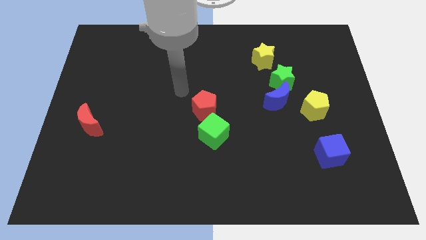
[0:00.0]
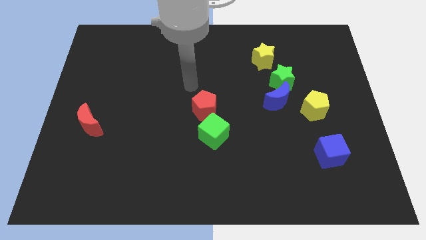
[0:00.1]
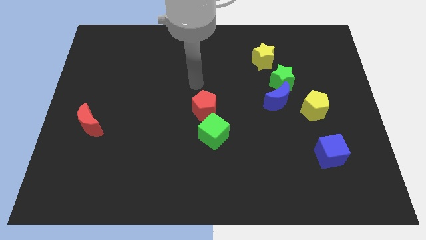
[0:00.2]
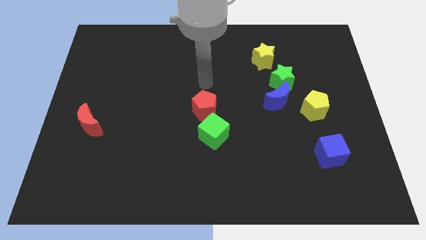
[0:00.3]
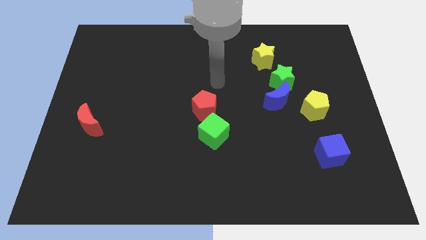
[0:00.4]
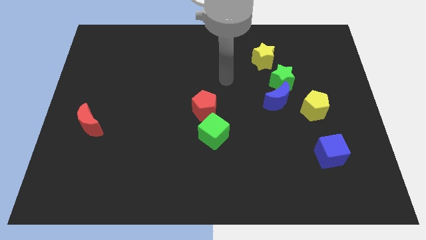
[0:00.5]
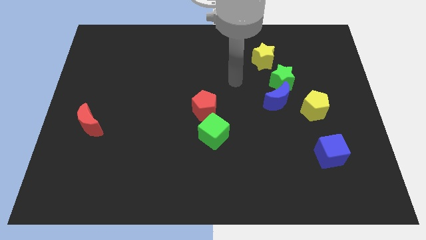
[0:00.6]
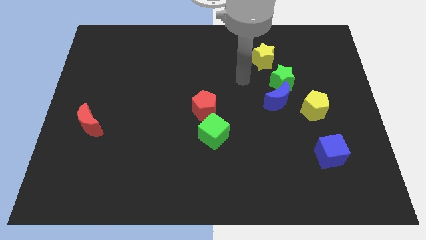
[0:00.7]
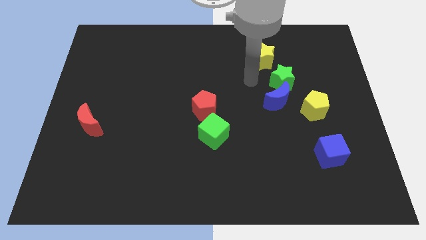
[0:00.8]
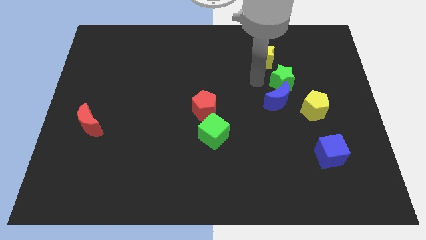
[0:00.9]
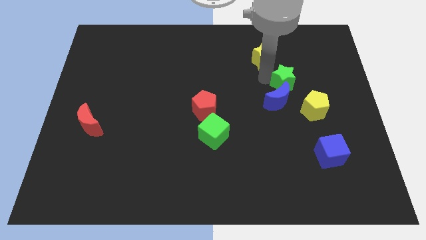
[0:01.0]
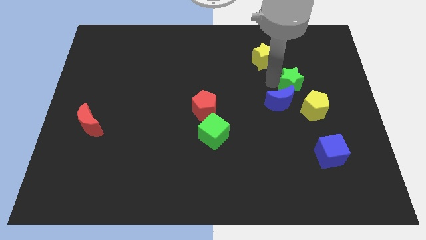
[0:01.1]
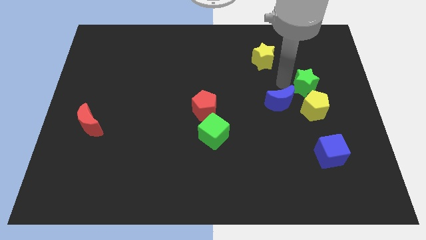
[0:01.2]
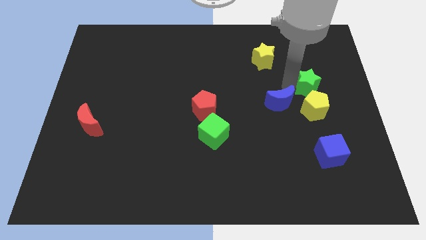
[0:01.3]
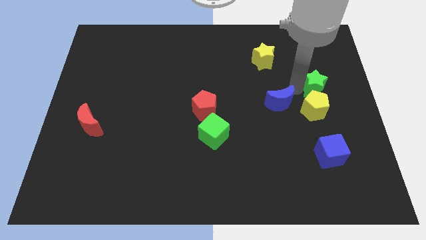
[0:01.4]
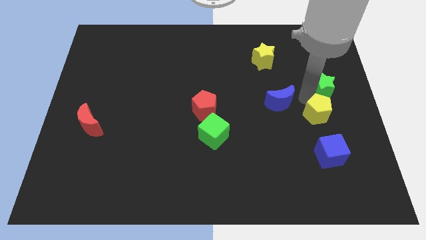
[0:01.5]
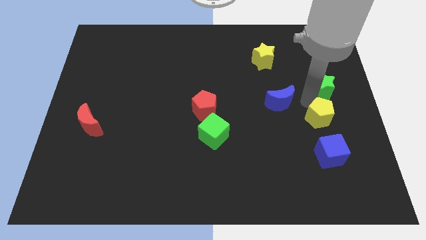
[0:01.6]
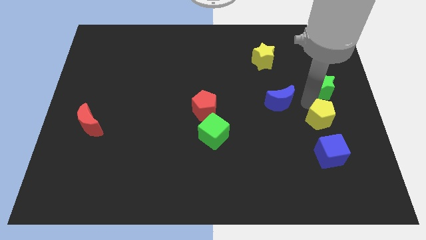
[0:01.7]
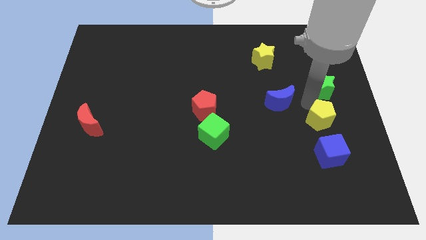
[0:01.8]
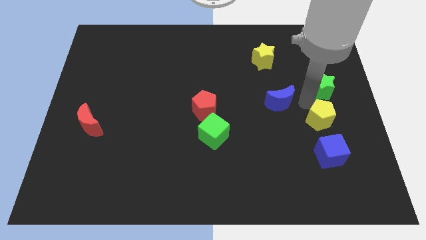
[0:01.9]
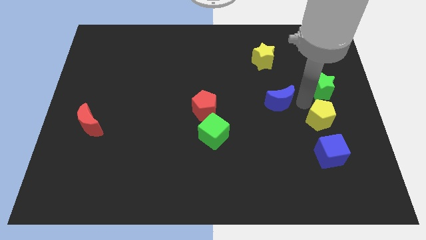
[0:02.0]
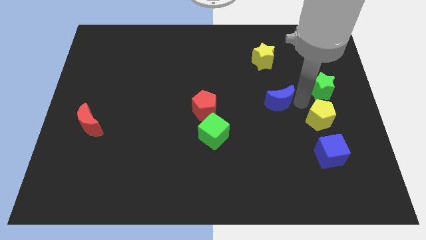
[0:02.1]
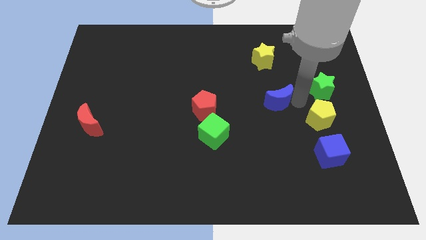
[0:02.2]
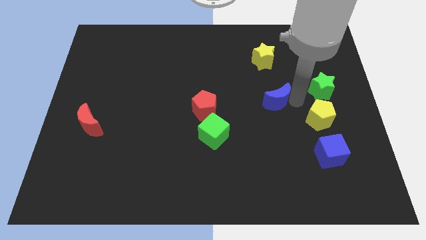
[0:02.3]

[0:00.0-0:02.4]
move the blue moon away from the green star and yellow pentagon

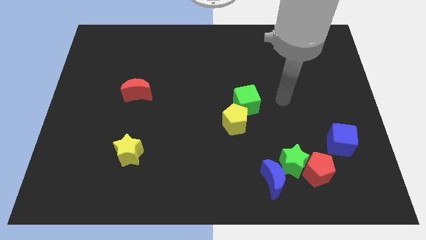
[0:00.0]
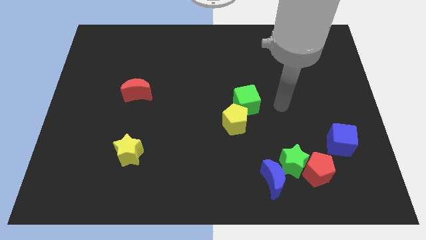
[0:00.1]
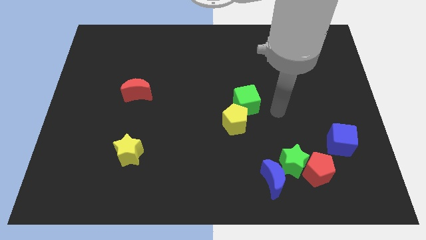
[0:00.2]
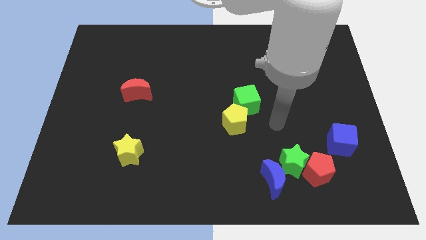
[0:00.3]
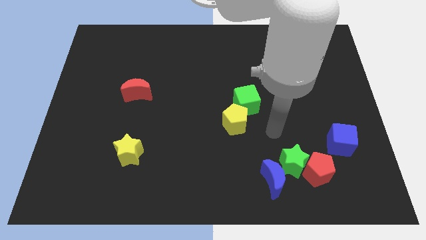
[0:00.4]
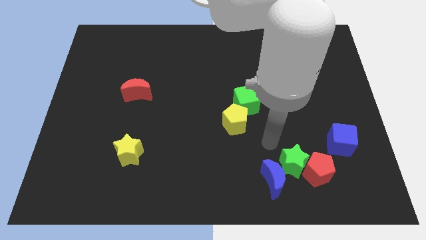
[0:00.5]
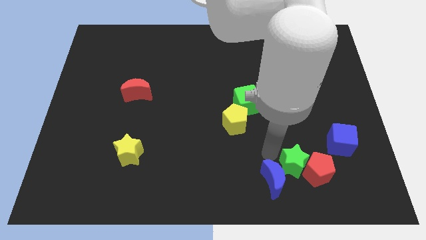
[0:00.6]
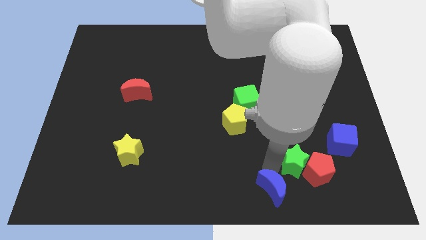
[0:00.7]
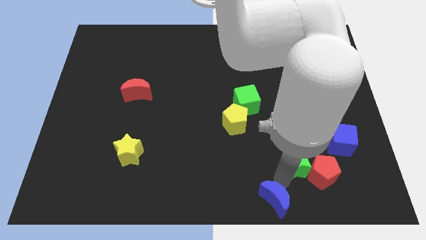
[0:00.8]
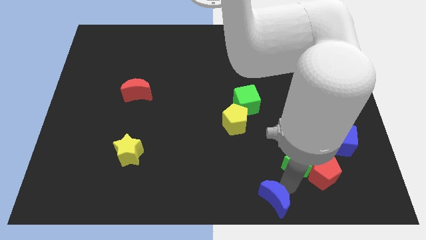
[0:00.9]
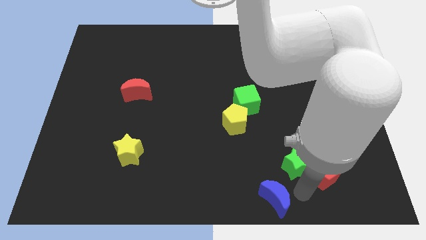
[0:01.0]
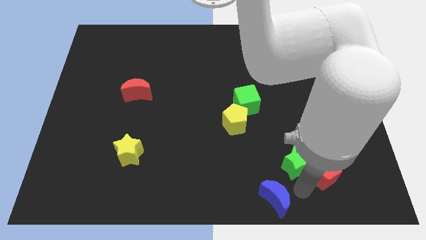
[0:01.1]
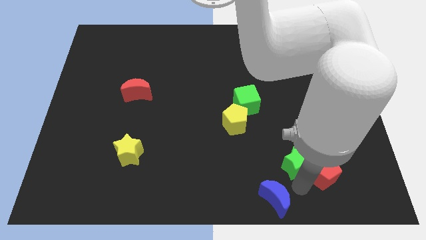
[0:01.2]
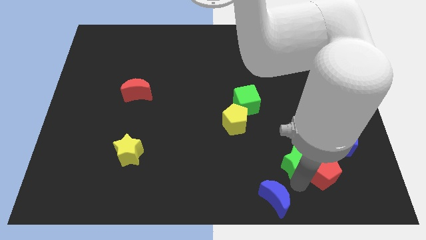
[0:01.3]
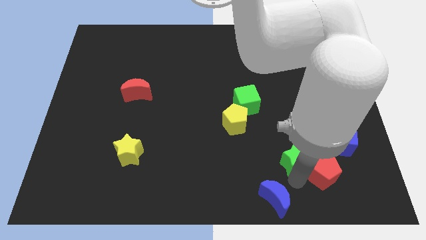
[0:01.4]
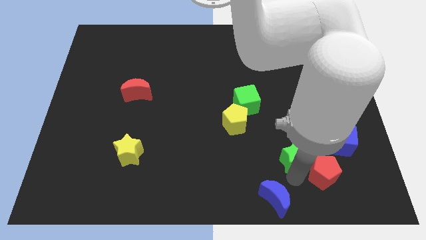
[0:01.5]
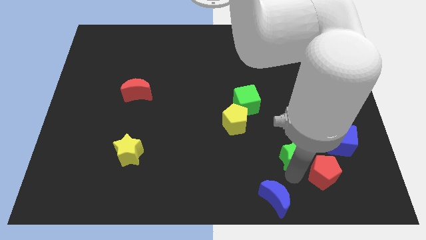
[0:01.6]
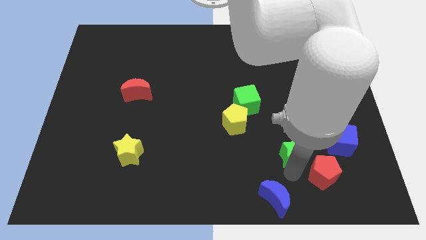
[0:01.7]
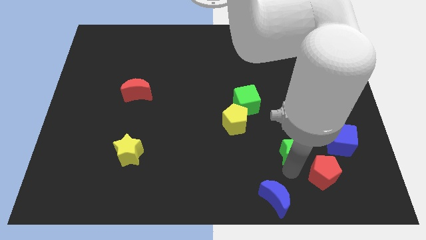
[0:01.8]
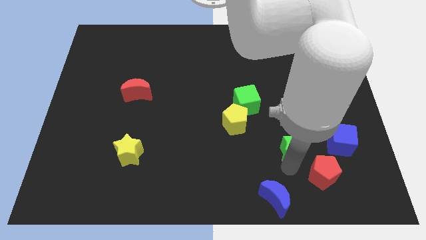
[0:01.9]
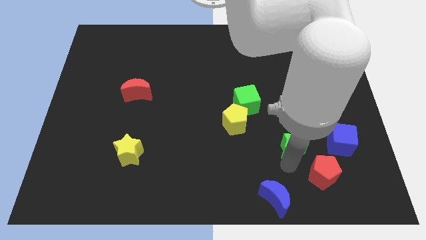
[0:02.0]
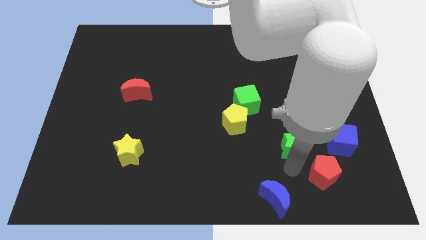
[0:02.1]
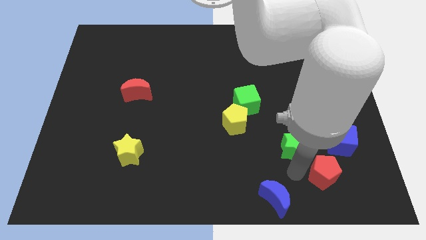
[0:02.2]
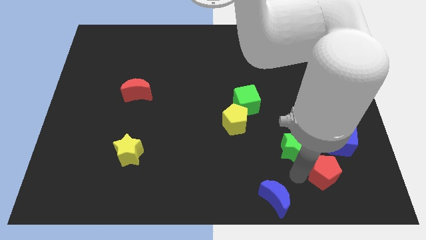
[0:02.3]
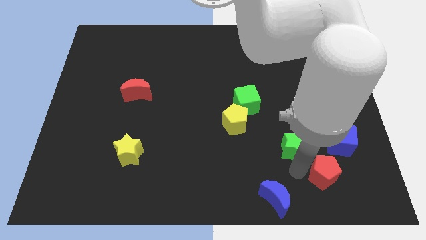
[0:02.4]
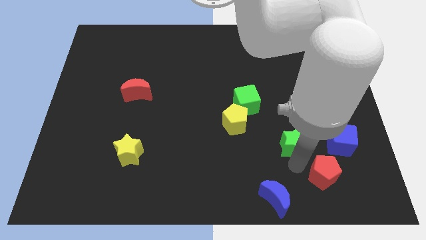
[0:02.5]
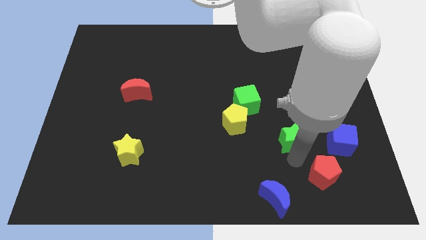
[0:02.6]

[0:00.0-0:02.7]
move the green star away from the red pentagon and blue moon

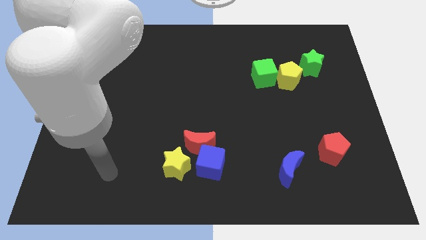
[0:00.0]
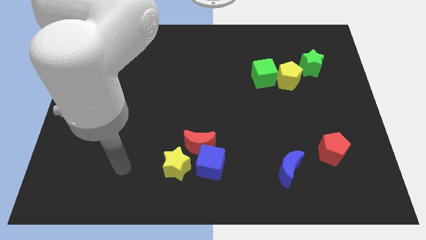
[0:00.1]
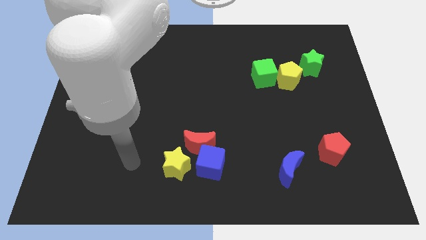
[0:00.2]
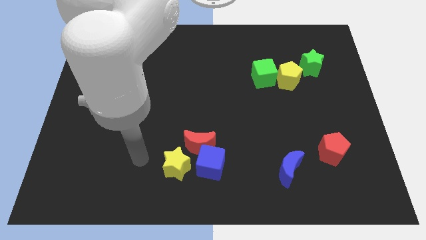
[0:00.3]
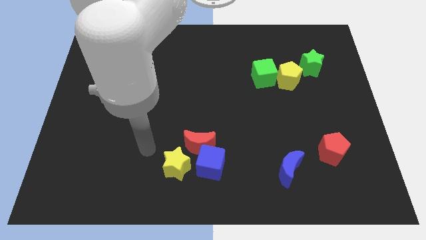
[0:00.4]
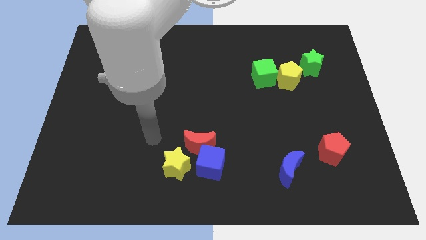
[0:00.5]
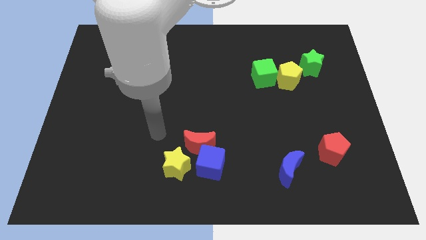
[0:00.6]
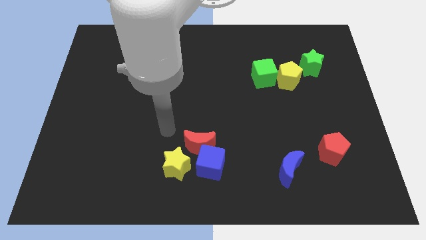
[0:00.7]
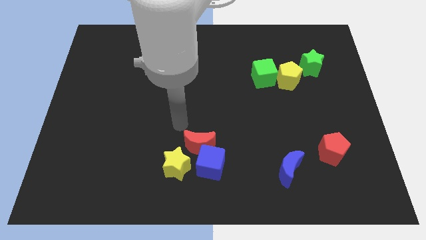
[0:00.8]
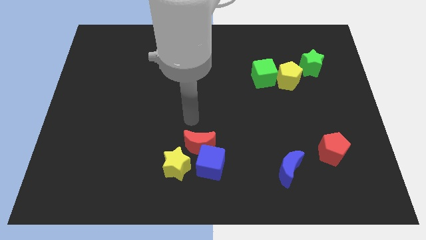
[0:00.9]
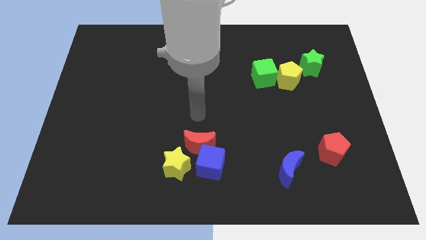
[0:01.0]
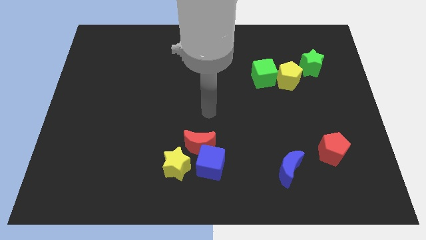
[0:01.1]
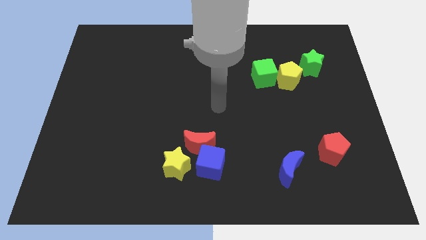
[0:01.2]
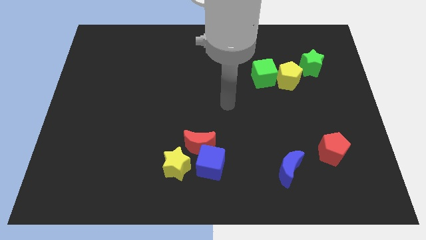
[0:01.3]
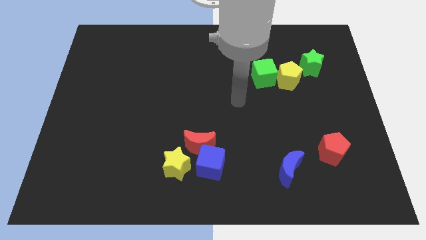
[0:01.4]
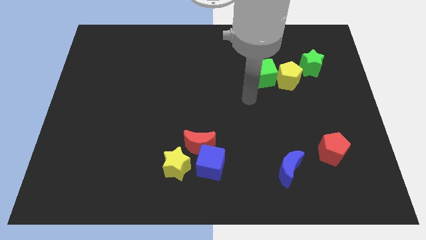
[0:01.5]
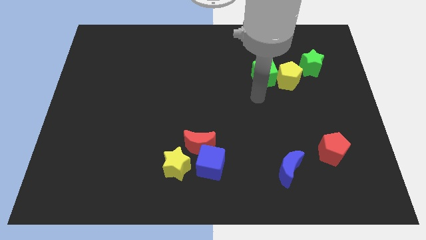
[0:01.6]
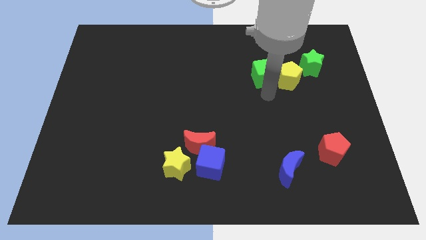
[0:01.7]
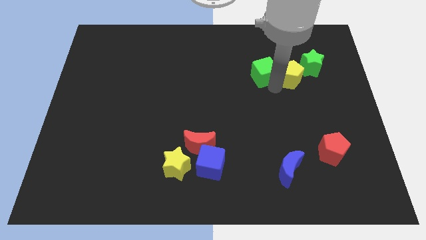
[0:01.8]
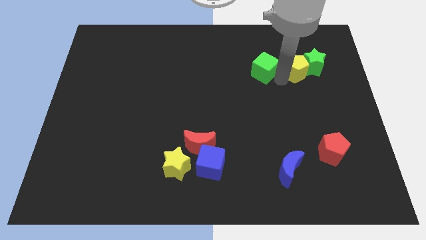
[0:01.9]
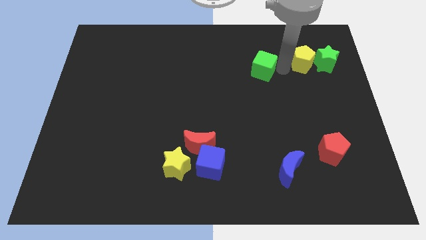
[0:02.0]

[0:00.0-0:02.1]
separate the green cube from the yellow pentagon

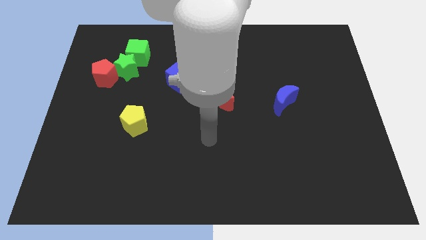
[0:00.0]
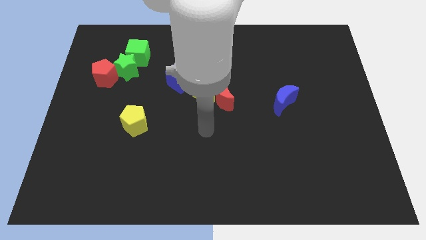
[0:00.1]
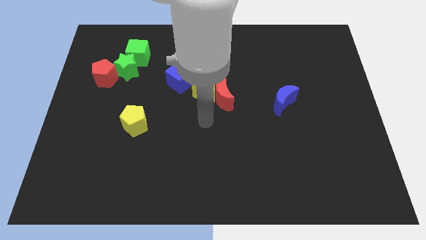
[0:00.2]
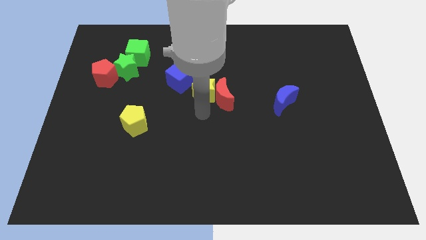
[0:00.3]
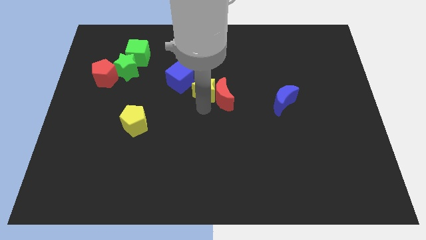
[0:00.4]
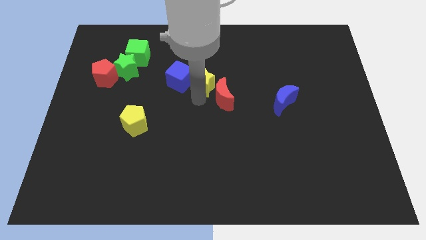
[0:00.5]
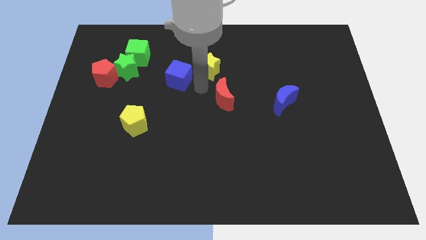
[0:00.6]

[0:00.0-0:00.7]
separate the red moon from the yellow star

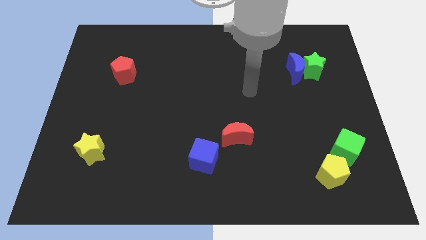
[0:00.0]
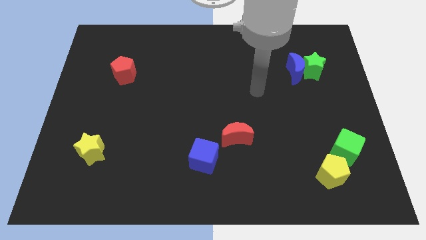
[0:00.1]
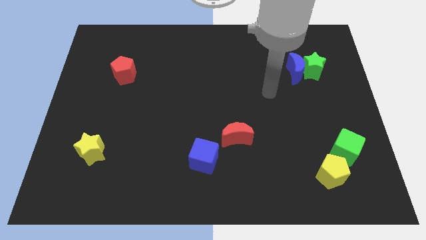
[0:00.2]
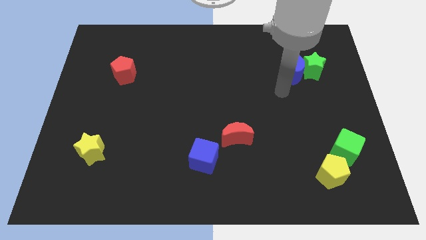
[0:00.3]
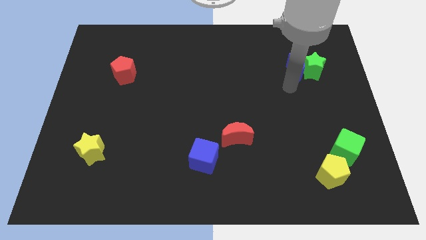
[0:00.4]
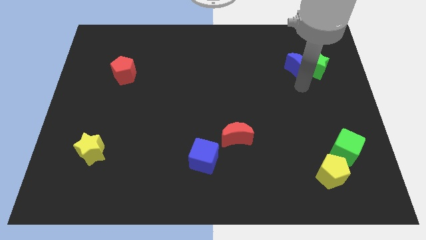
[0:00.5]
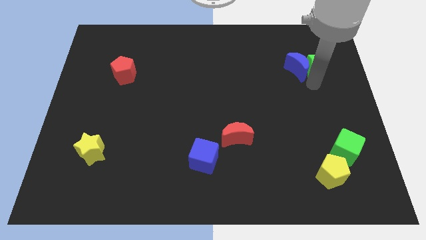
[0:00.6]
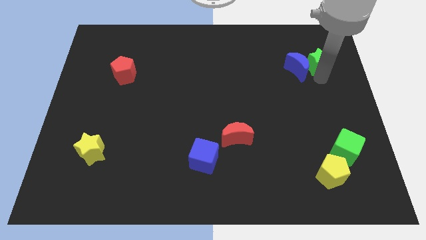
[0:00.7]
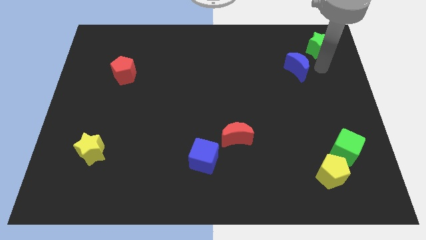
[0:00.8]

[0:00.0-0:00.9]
move the blue moon away from the green star

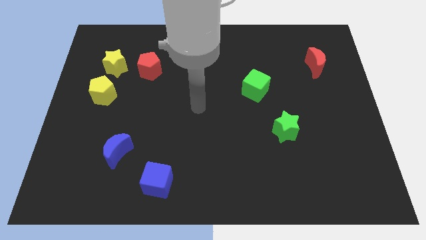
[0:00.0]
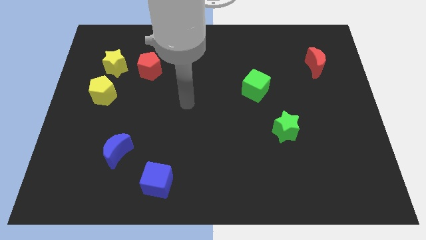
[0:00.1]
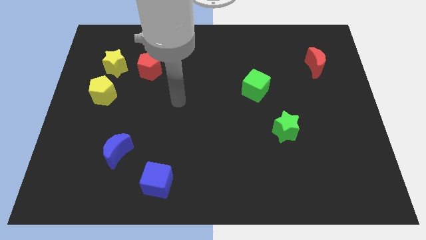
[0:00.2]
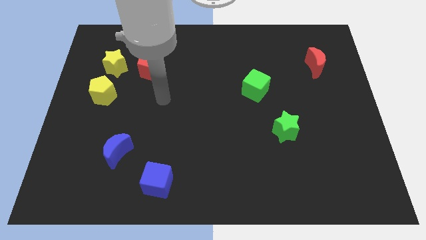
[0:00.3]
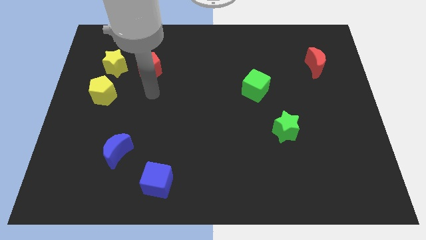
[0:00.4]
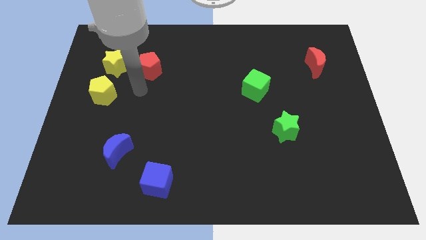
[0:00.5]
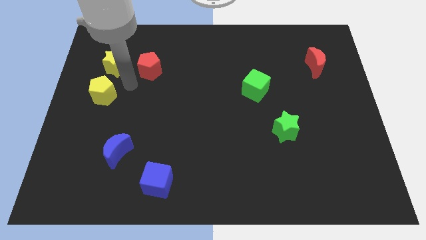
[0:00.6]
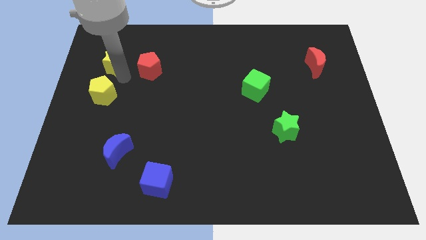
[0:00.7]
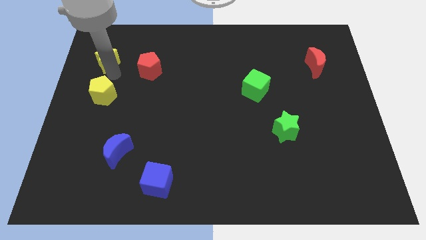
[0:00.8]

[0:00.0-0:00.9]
move the yellow pentagon away from the yellow star
